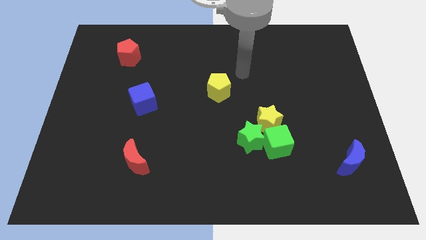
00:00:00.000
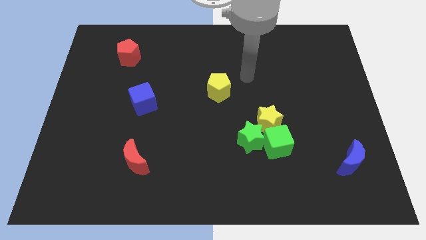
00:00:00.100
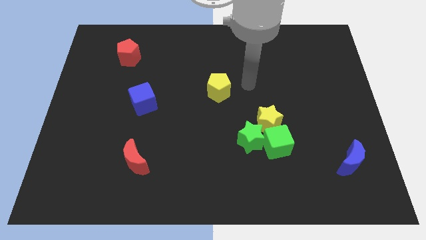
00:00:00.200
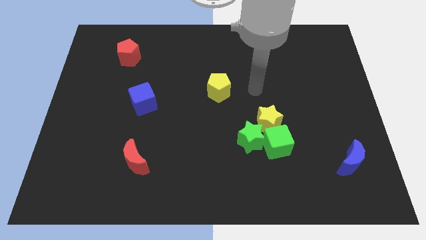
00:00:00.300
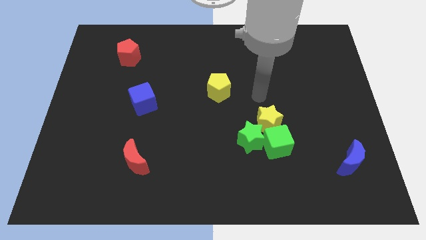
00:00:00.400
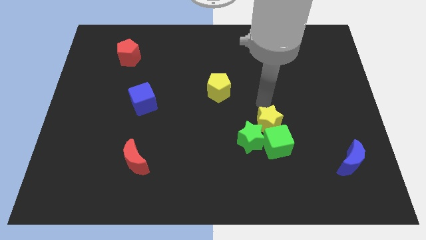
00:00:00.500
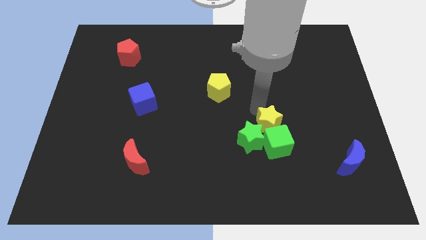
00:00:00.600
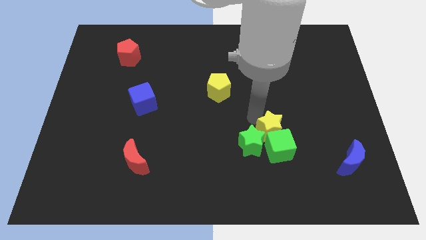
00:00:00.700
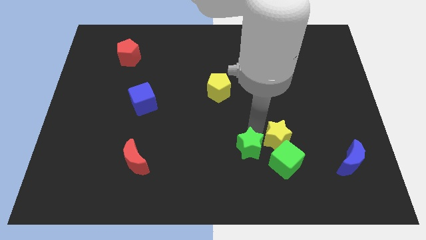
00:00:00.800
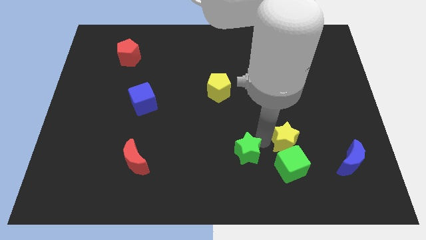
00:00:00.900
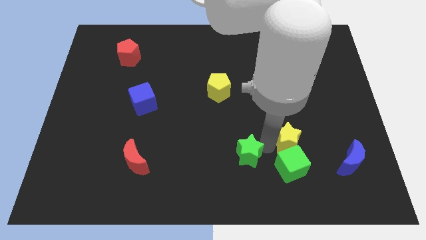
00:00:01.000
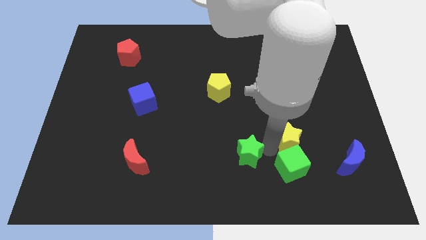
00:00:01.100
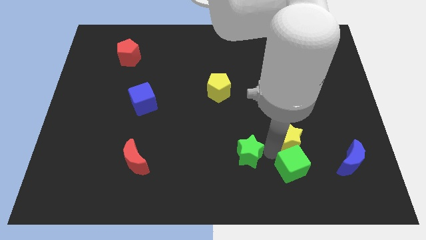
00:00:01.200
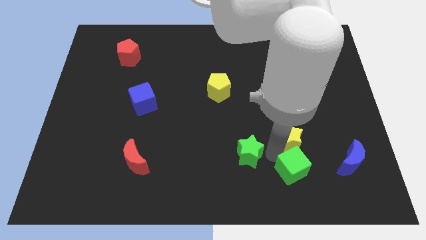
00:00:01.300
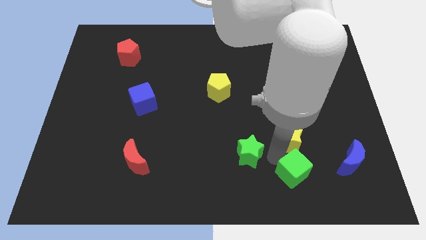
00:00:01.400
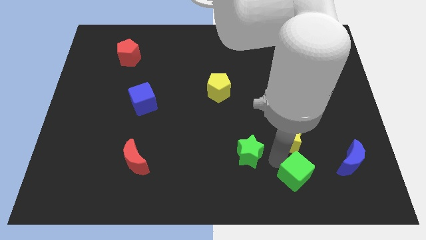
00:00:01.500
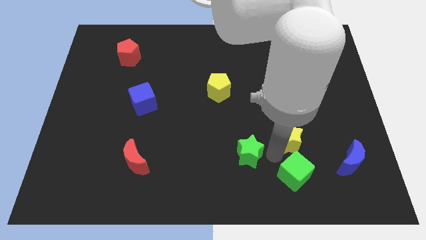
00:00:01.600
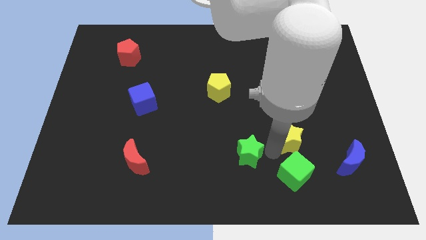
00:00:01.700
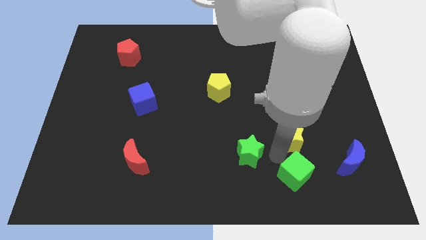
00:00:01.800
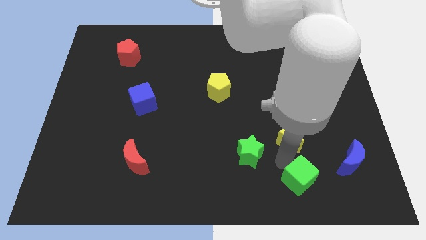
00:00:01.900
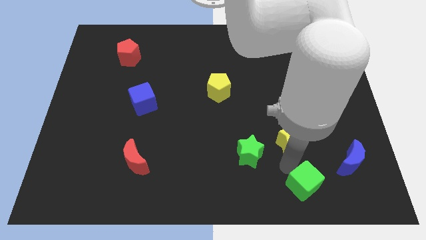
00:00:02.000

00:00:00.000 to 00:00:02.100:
pull the green cube apart from the green star and yellow star

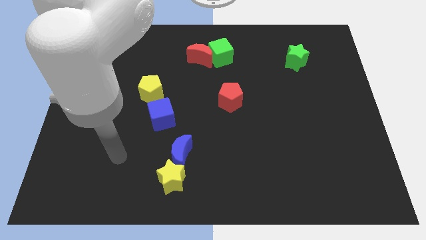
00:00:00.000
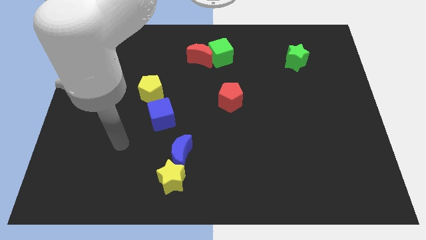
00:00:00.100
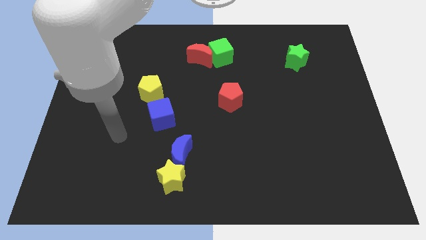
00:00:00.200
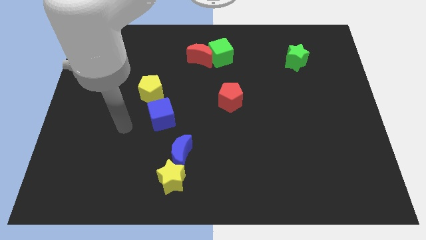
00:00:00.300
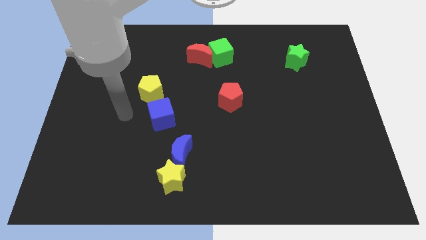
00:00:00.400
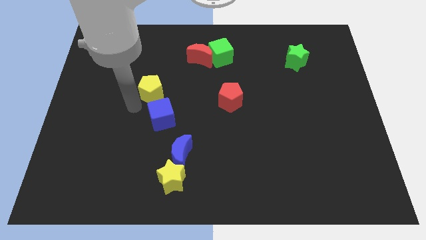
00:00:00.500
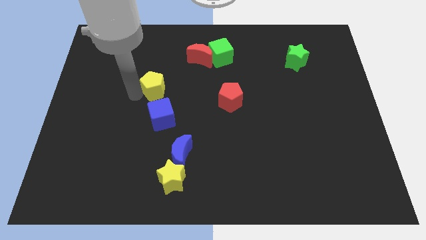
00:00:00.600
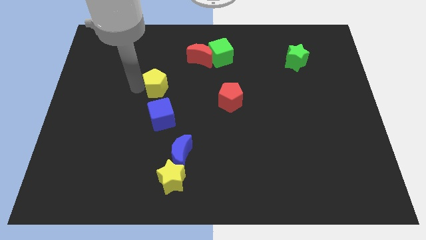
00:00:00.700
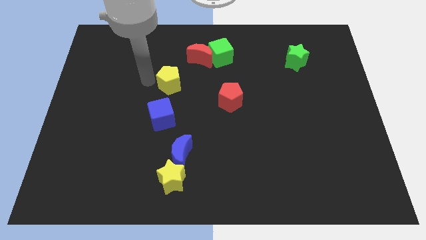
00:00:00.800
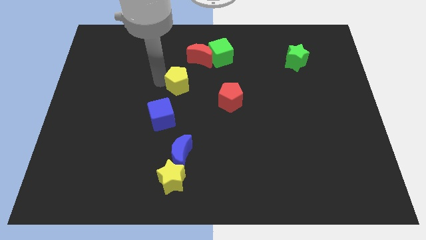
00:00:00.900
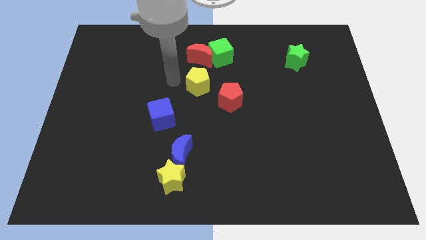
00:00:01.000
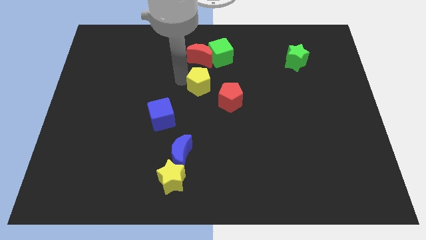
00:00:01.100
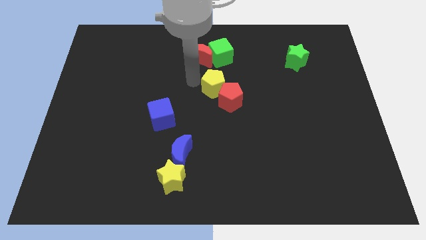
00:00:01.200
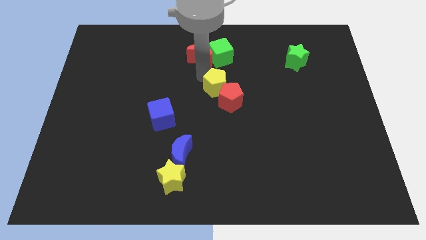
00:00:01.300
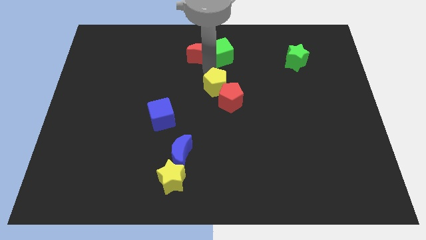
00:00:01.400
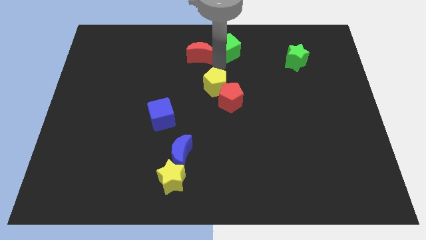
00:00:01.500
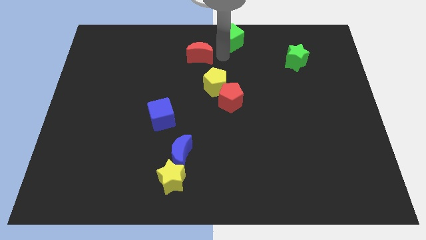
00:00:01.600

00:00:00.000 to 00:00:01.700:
move the red moon away from the green cube

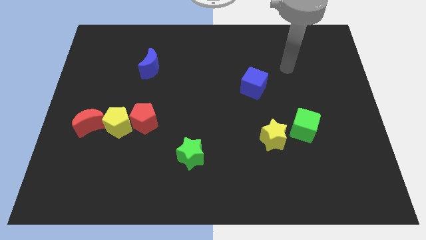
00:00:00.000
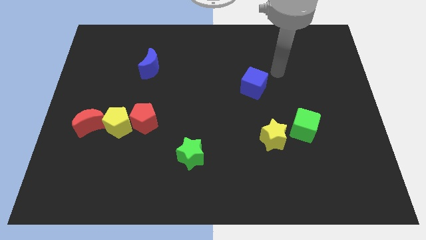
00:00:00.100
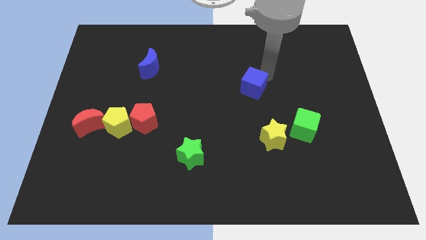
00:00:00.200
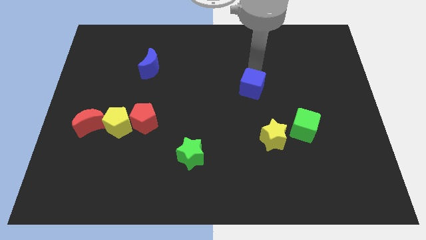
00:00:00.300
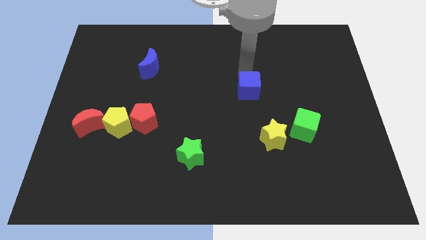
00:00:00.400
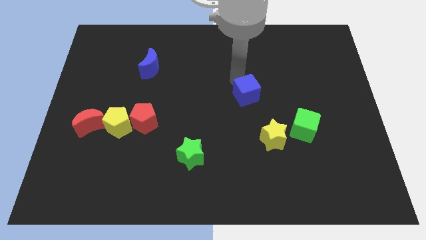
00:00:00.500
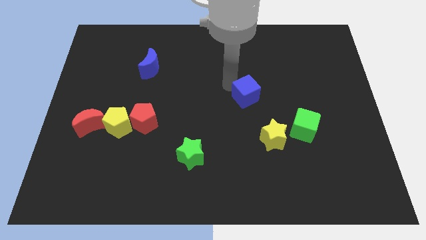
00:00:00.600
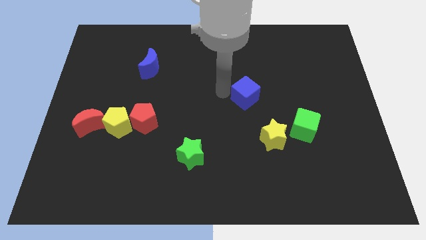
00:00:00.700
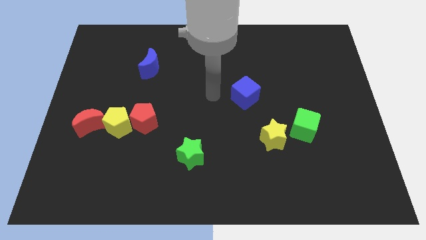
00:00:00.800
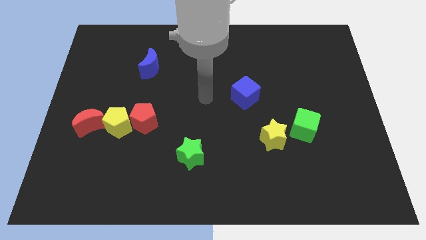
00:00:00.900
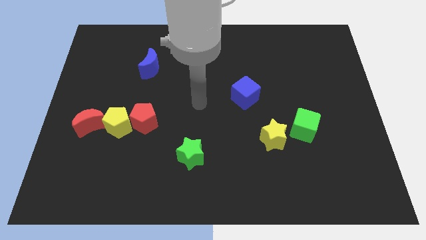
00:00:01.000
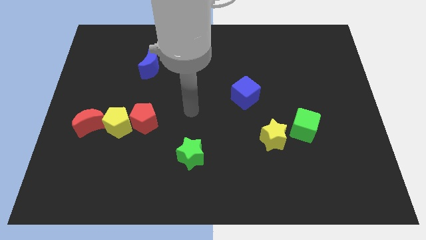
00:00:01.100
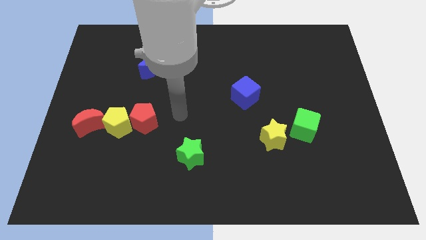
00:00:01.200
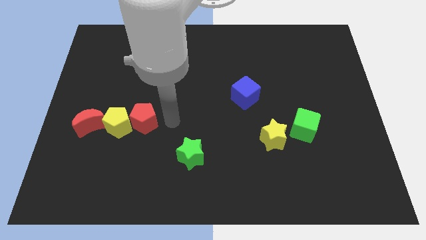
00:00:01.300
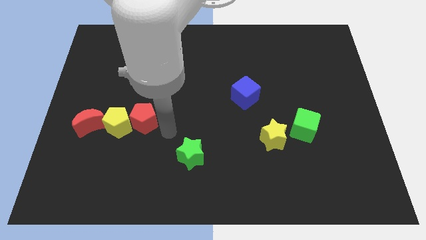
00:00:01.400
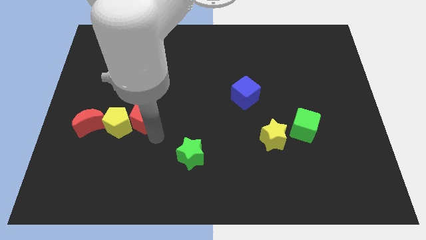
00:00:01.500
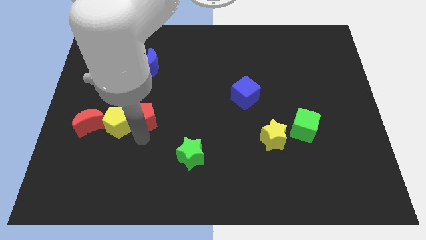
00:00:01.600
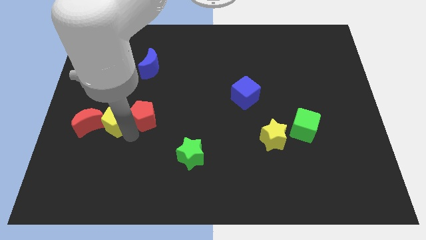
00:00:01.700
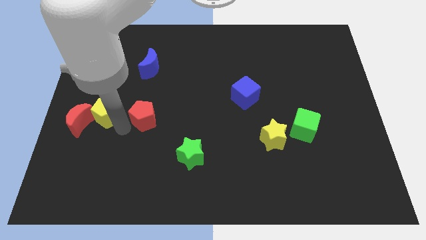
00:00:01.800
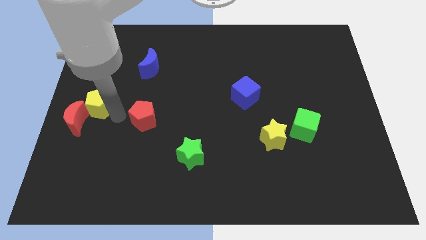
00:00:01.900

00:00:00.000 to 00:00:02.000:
separate the red pentagon from the yellow pentagon

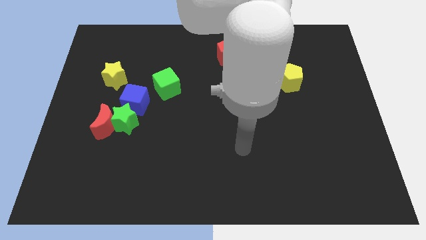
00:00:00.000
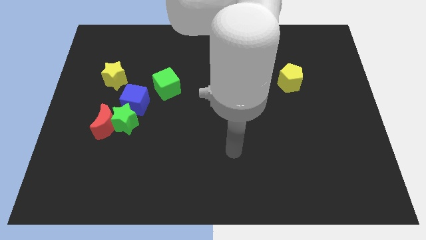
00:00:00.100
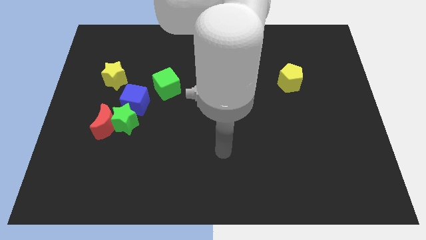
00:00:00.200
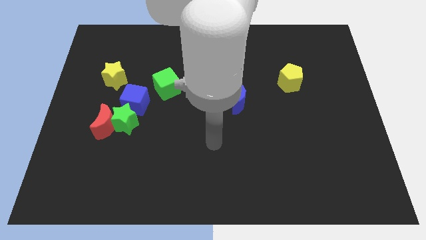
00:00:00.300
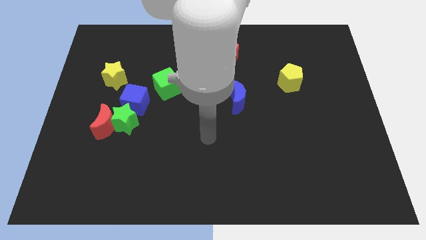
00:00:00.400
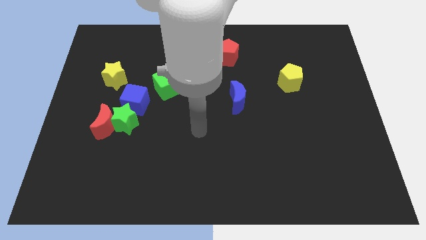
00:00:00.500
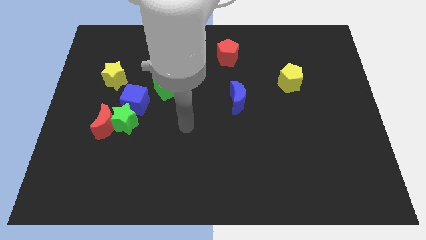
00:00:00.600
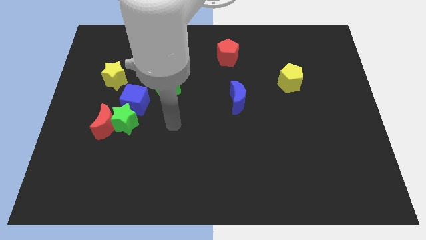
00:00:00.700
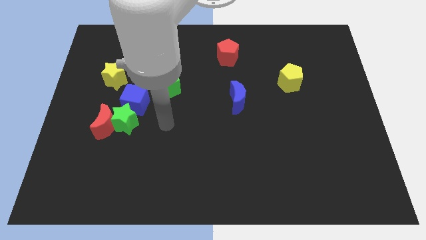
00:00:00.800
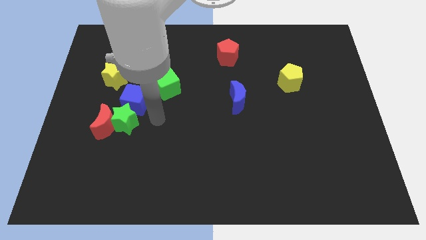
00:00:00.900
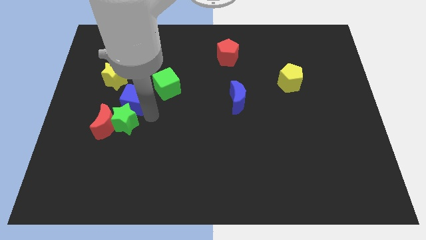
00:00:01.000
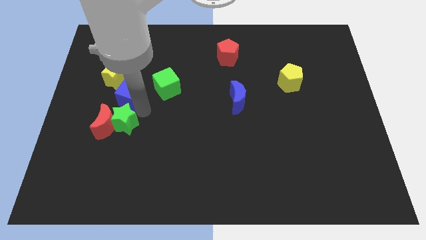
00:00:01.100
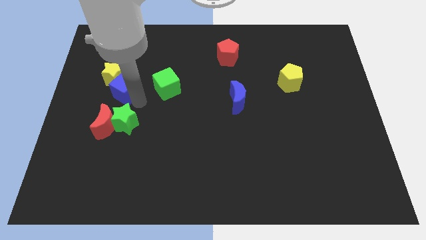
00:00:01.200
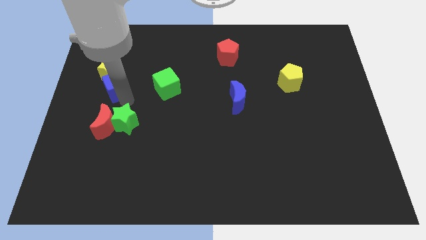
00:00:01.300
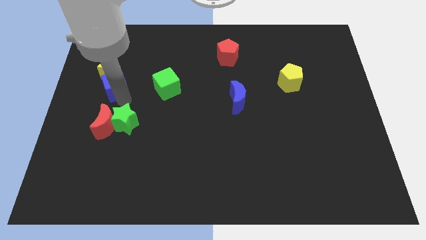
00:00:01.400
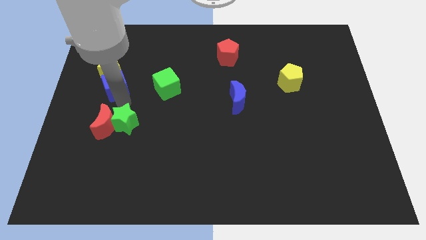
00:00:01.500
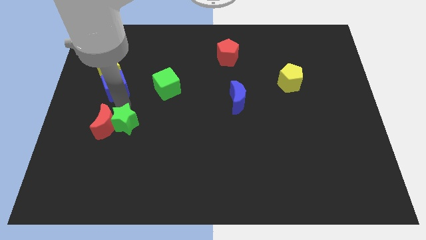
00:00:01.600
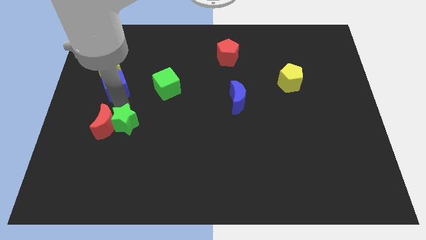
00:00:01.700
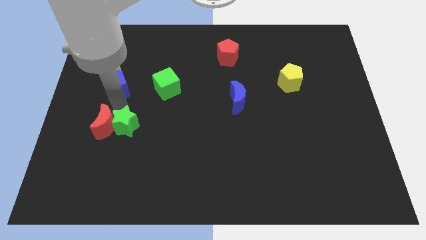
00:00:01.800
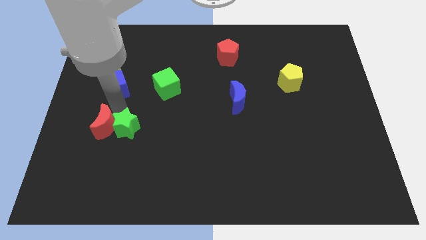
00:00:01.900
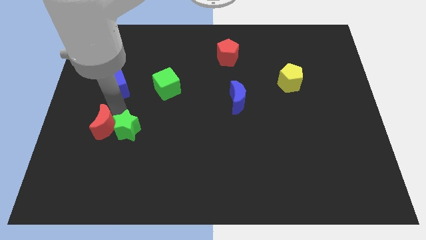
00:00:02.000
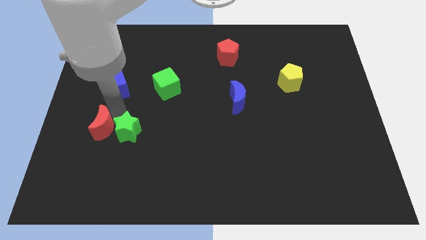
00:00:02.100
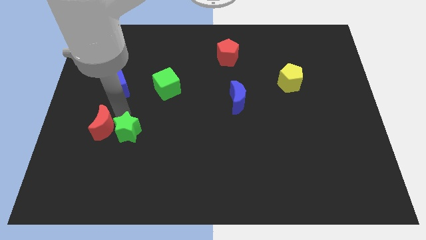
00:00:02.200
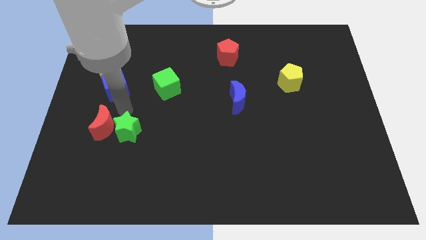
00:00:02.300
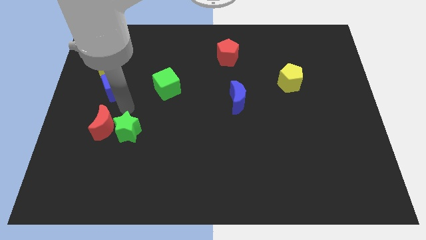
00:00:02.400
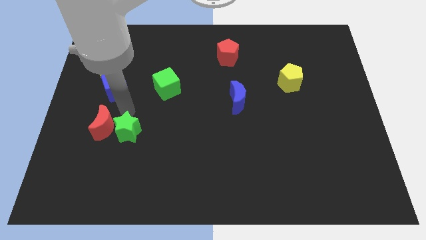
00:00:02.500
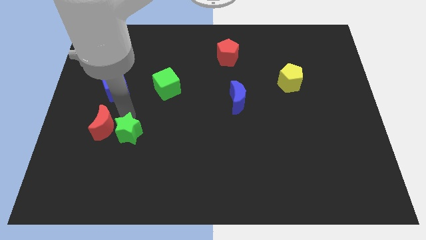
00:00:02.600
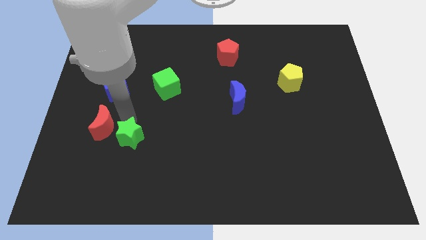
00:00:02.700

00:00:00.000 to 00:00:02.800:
move the green star away from the red moon and blue cube

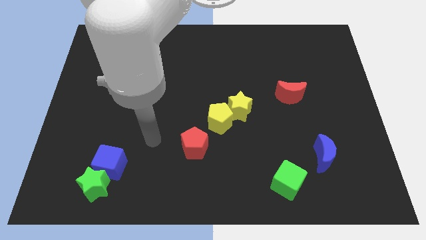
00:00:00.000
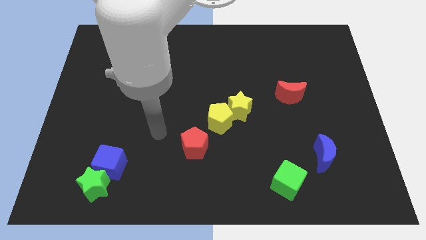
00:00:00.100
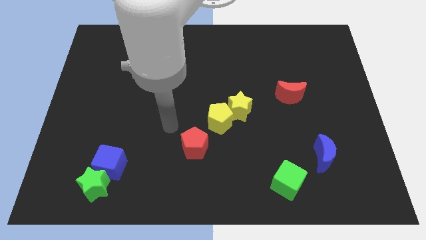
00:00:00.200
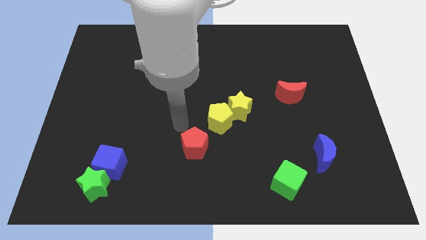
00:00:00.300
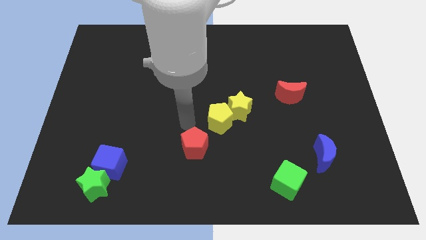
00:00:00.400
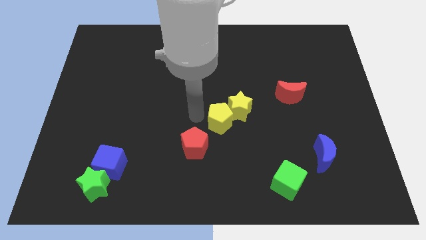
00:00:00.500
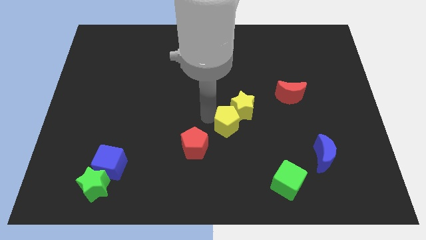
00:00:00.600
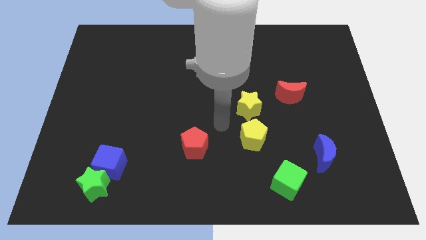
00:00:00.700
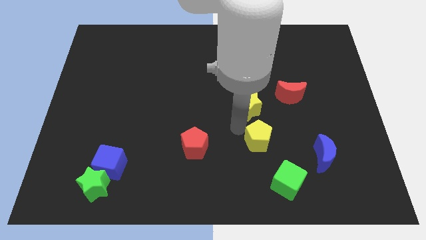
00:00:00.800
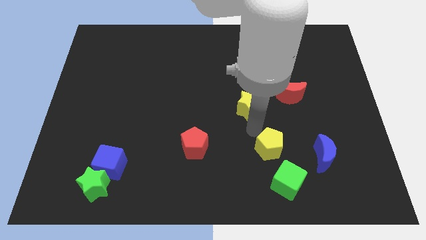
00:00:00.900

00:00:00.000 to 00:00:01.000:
separate the yellow star from the yellow pentagon
